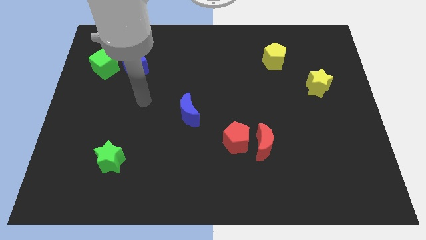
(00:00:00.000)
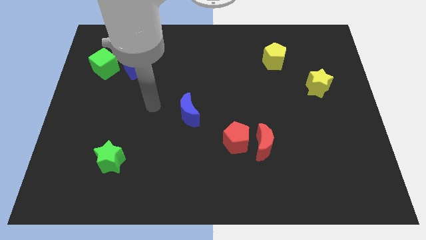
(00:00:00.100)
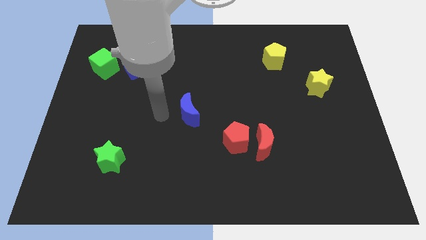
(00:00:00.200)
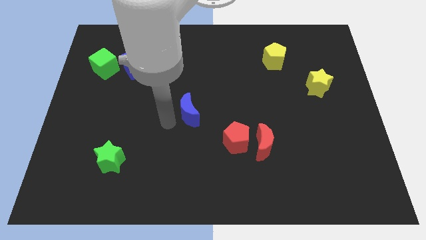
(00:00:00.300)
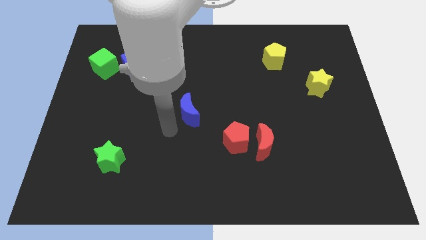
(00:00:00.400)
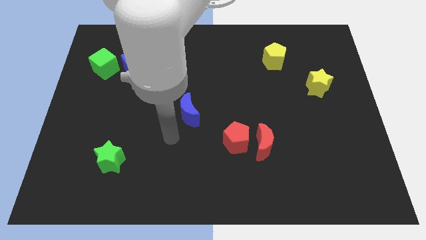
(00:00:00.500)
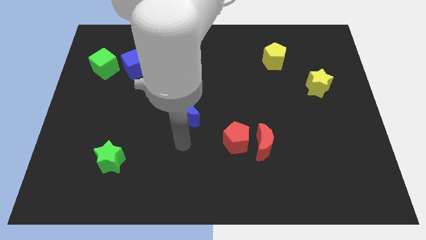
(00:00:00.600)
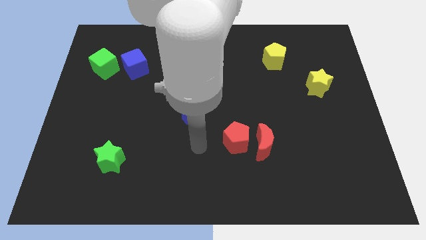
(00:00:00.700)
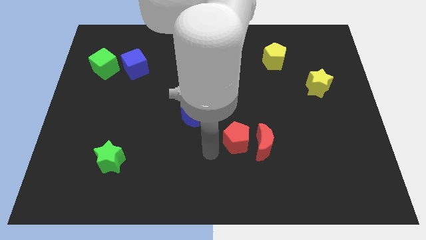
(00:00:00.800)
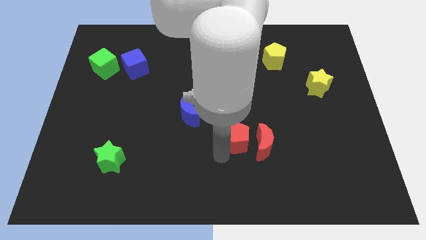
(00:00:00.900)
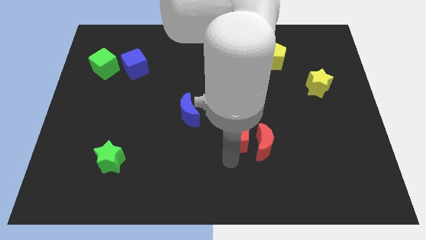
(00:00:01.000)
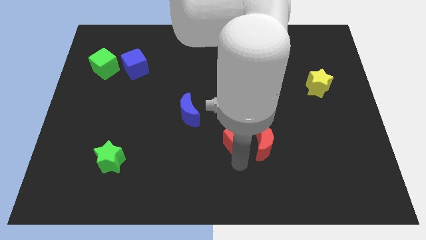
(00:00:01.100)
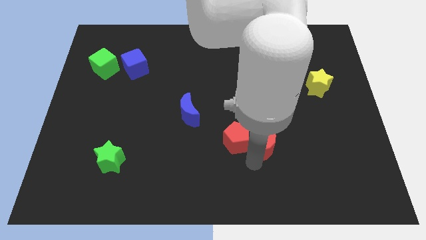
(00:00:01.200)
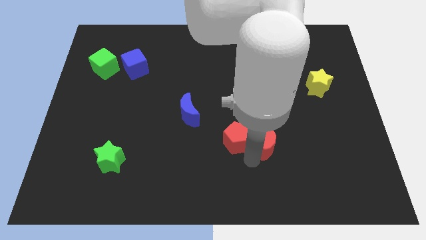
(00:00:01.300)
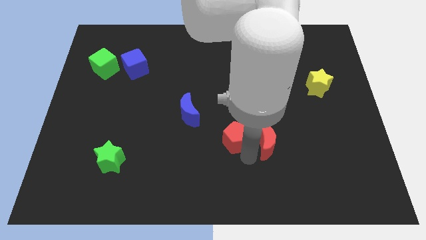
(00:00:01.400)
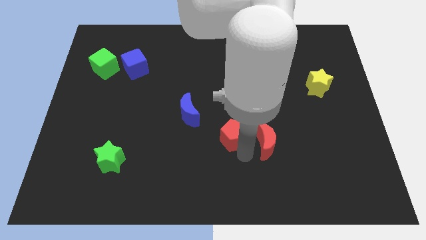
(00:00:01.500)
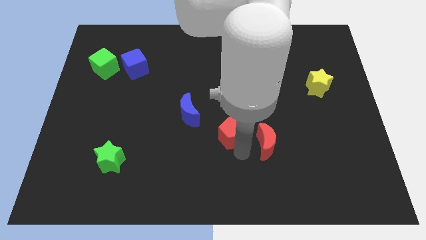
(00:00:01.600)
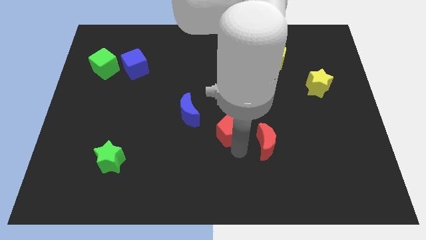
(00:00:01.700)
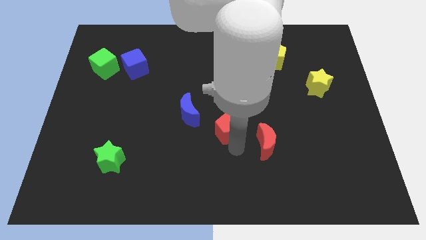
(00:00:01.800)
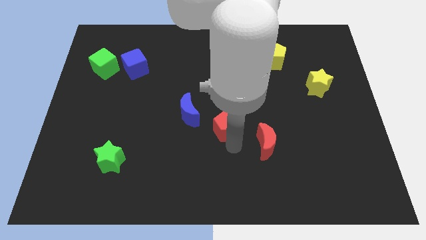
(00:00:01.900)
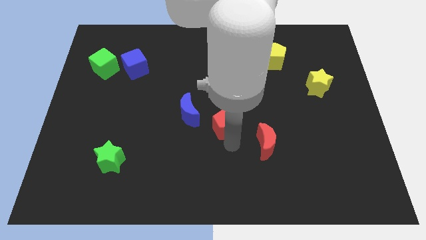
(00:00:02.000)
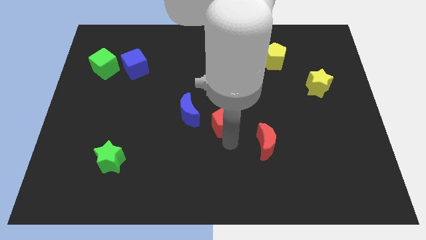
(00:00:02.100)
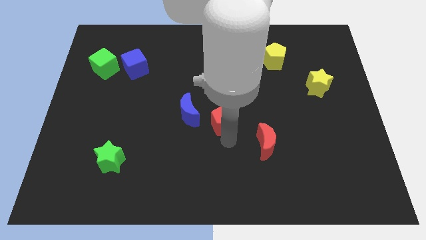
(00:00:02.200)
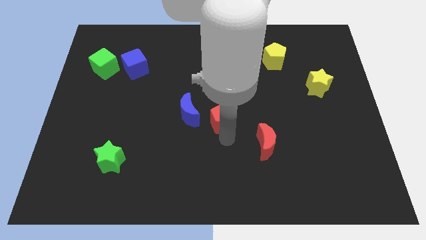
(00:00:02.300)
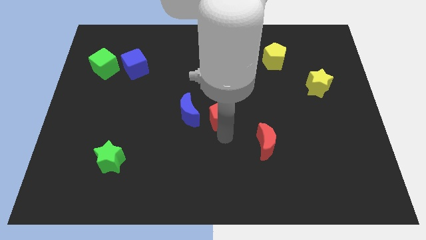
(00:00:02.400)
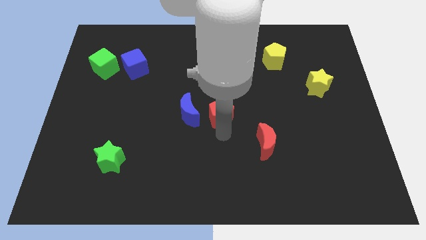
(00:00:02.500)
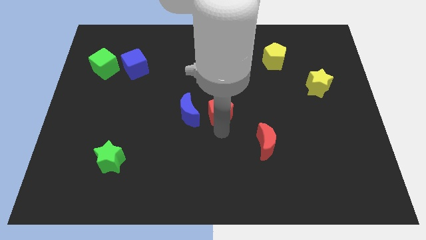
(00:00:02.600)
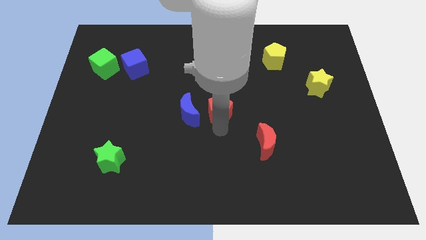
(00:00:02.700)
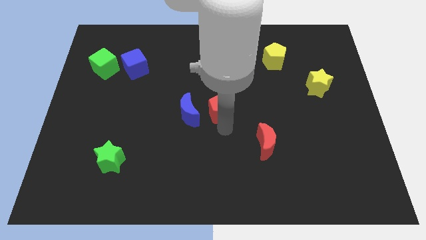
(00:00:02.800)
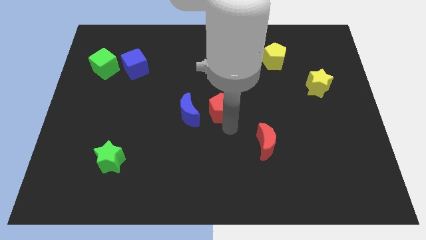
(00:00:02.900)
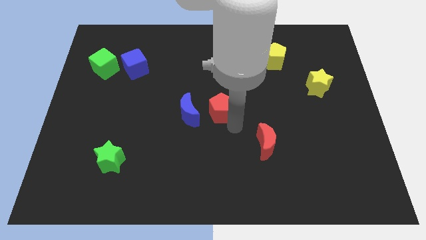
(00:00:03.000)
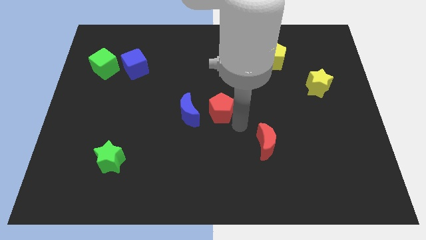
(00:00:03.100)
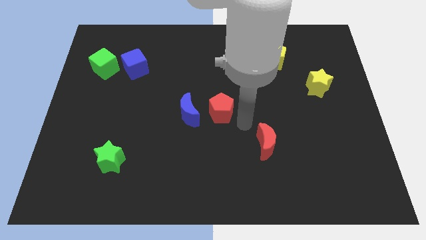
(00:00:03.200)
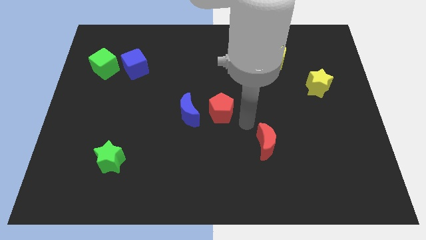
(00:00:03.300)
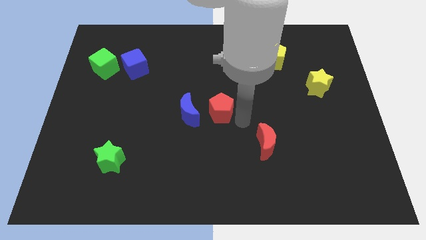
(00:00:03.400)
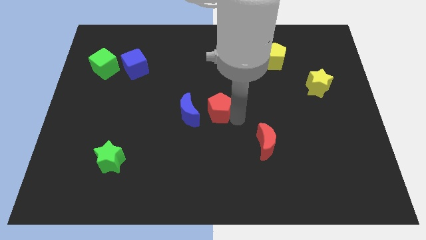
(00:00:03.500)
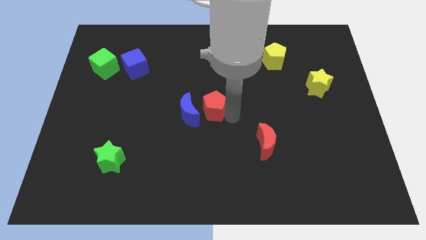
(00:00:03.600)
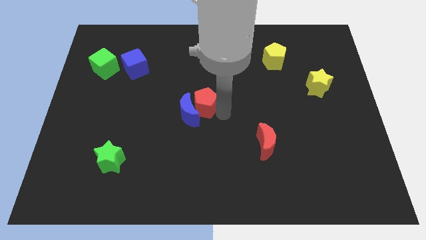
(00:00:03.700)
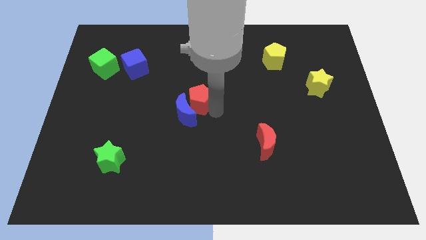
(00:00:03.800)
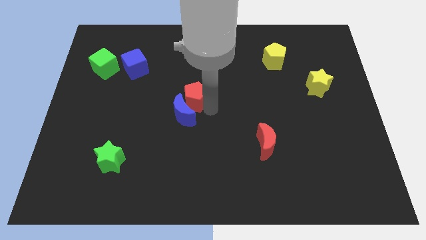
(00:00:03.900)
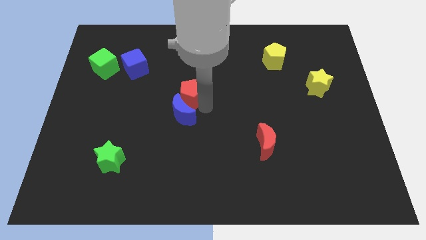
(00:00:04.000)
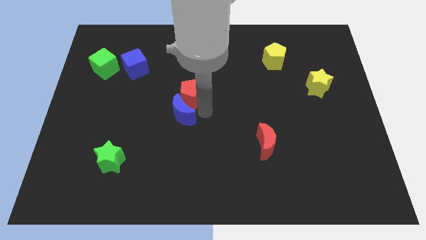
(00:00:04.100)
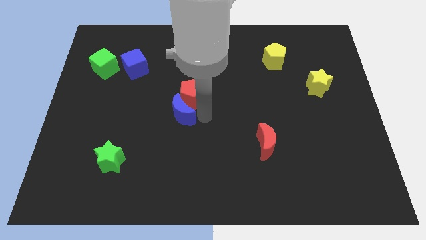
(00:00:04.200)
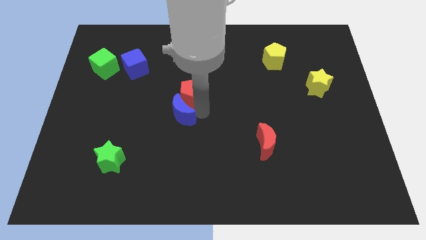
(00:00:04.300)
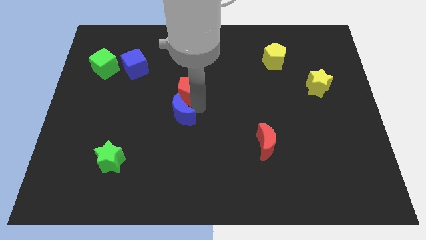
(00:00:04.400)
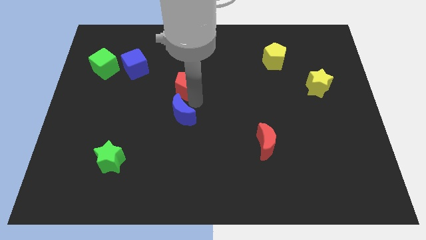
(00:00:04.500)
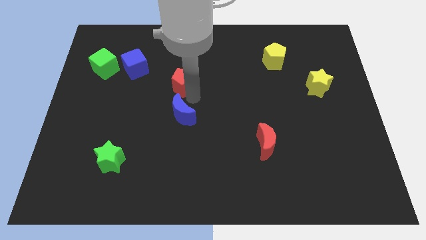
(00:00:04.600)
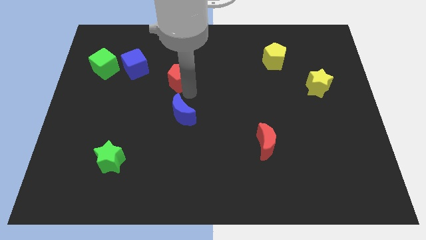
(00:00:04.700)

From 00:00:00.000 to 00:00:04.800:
slide the red pentagon to the right side of the blue cube

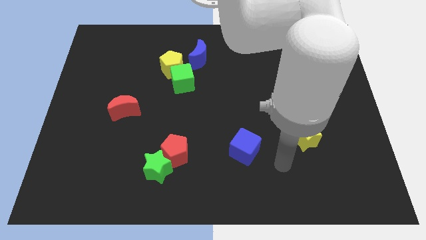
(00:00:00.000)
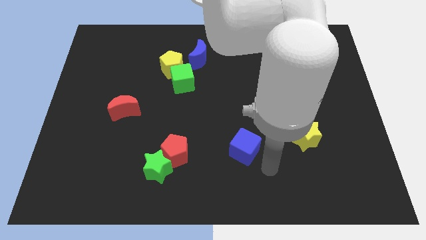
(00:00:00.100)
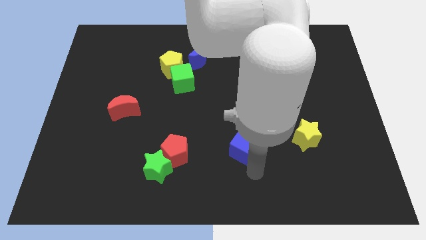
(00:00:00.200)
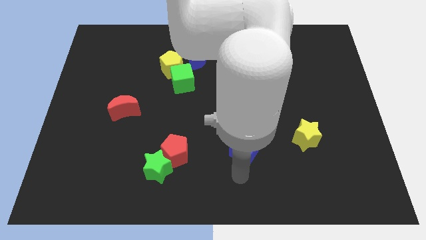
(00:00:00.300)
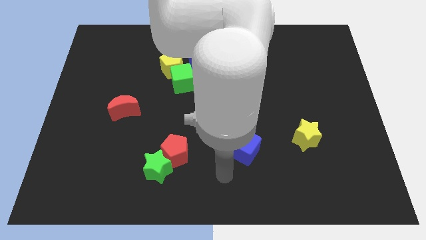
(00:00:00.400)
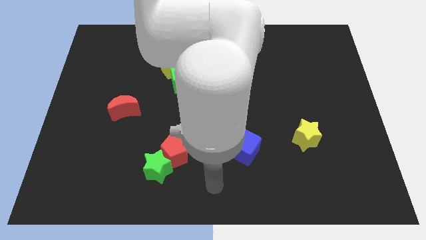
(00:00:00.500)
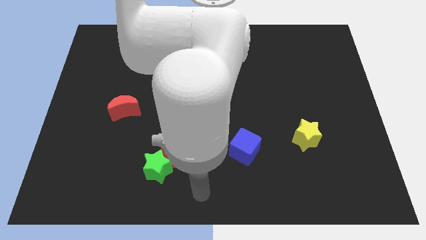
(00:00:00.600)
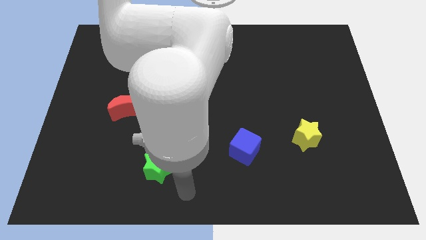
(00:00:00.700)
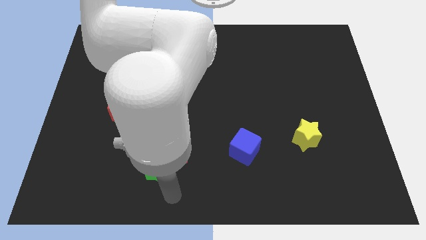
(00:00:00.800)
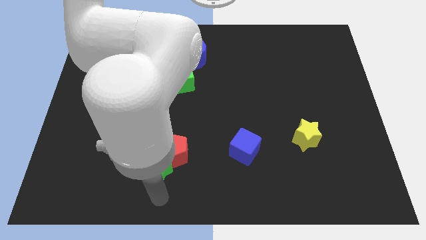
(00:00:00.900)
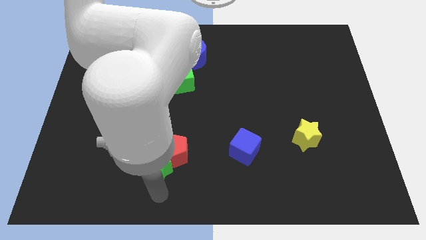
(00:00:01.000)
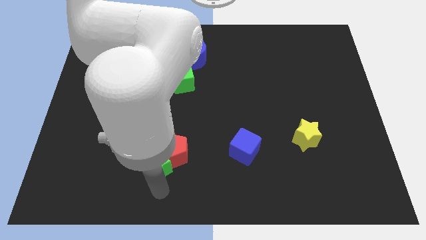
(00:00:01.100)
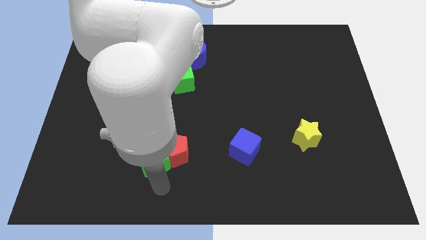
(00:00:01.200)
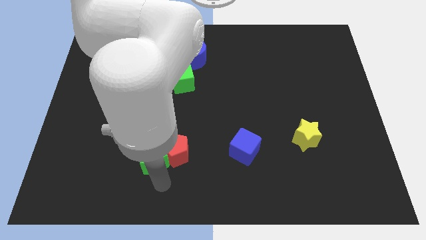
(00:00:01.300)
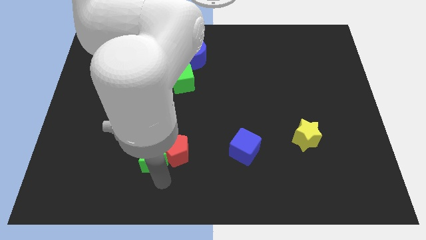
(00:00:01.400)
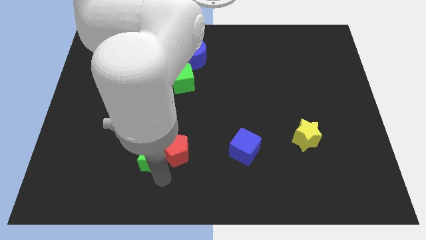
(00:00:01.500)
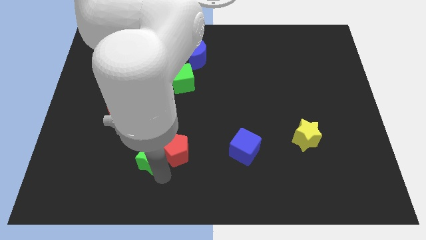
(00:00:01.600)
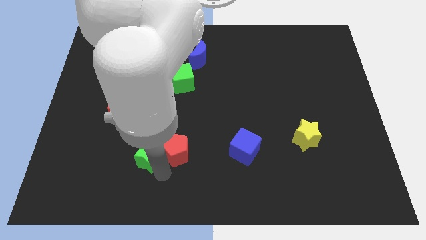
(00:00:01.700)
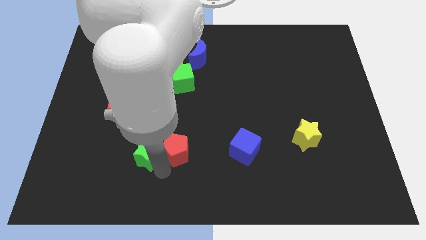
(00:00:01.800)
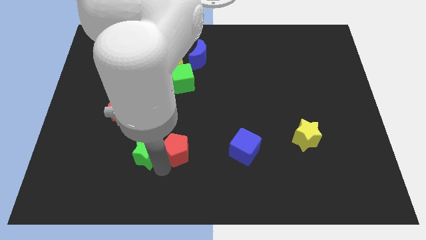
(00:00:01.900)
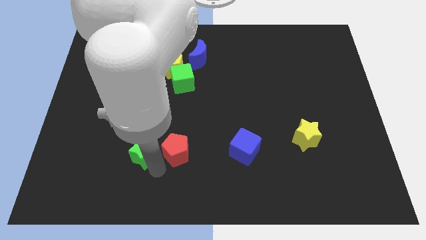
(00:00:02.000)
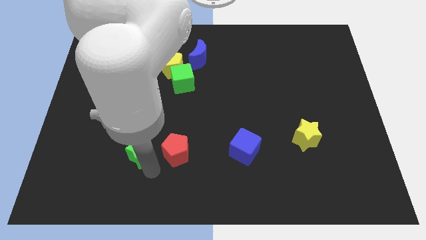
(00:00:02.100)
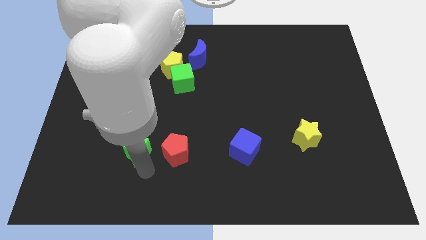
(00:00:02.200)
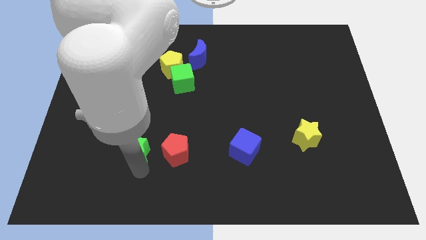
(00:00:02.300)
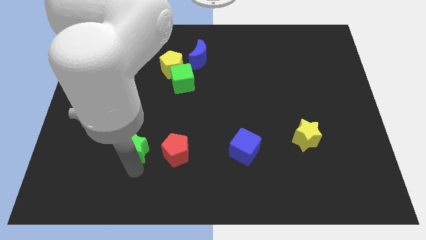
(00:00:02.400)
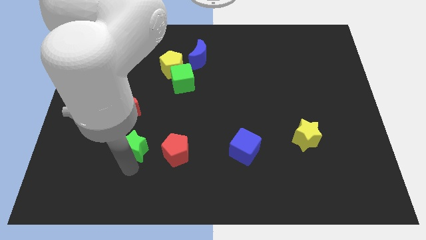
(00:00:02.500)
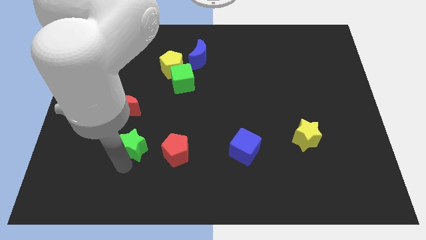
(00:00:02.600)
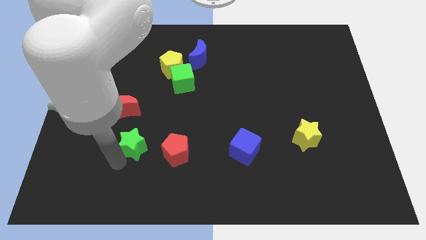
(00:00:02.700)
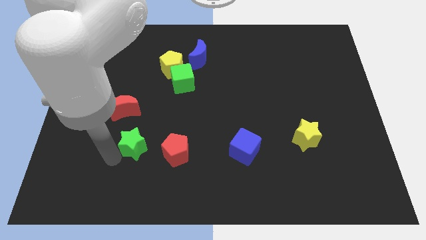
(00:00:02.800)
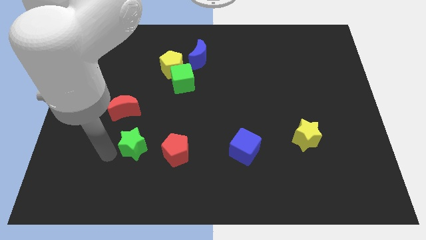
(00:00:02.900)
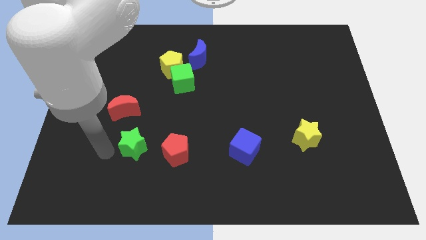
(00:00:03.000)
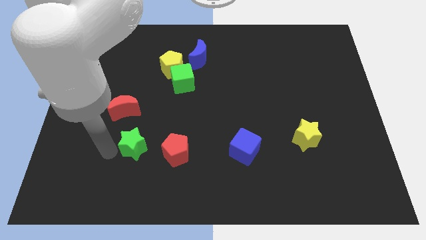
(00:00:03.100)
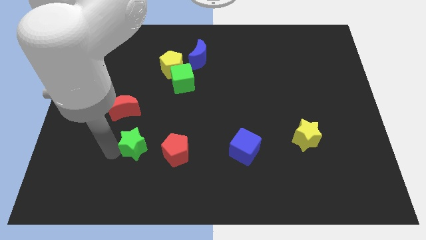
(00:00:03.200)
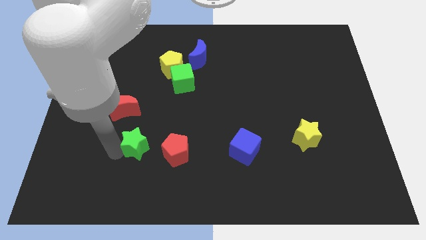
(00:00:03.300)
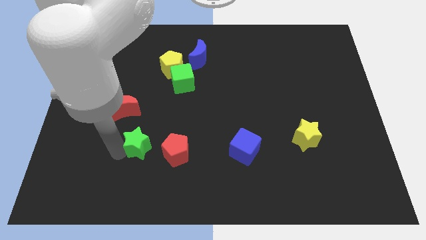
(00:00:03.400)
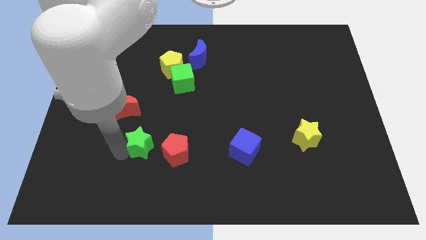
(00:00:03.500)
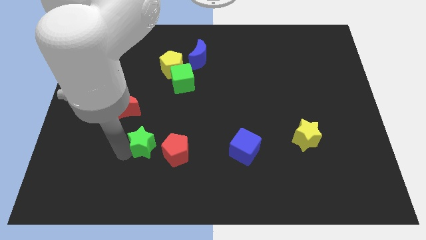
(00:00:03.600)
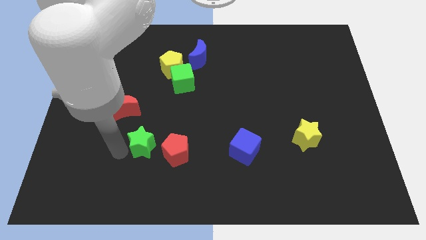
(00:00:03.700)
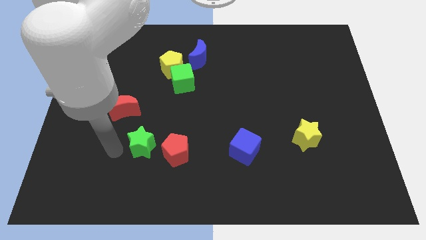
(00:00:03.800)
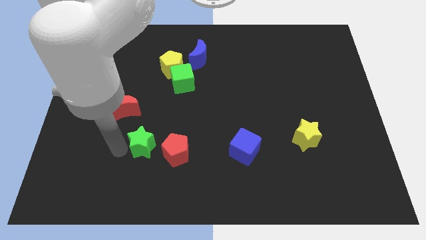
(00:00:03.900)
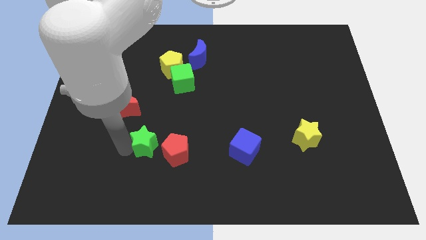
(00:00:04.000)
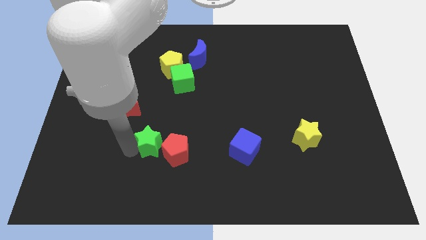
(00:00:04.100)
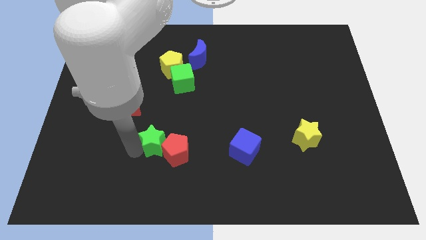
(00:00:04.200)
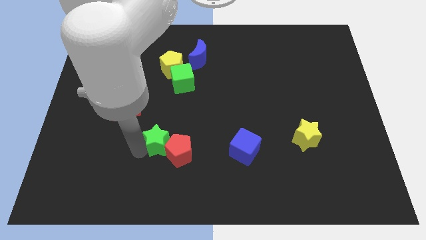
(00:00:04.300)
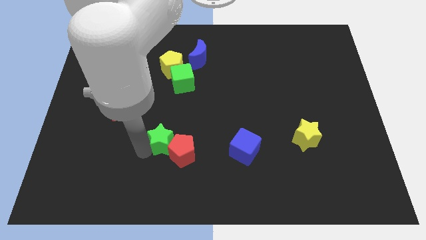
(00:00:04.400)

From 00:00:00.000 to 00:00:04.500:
move the green star to the top of the red pentagon
